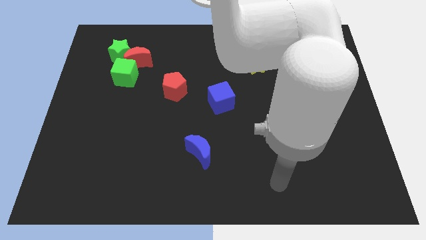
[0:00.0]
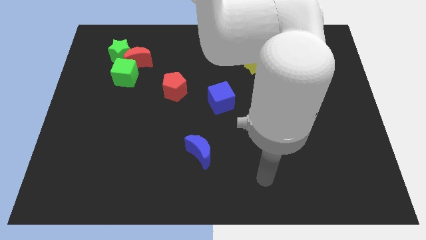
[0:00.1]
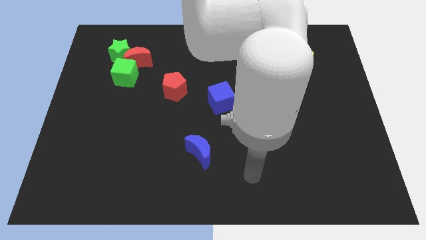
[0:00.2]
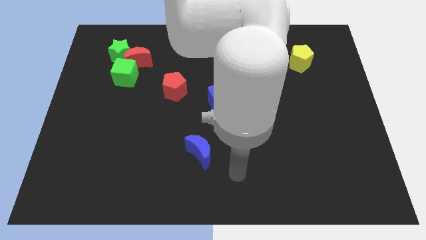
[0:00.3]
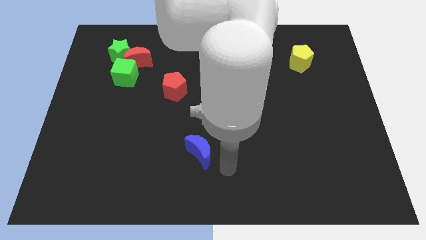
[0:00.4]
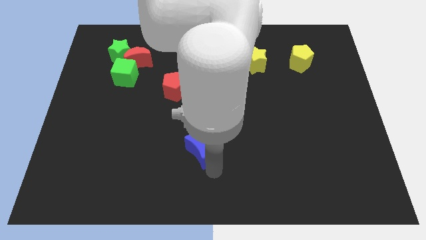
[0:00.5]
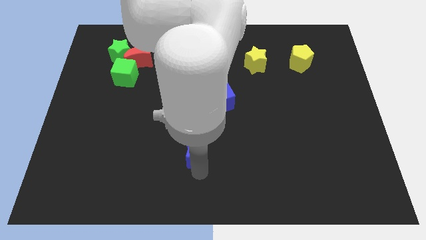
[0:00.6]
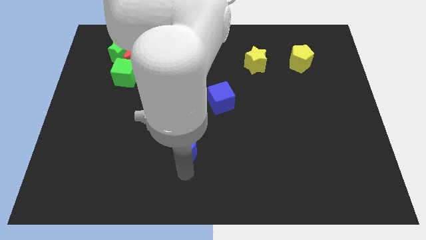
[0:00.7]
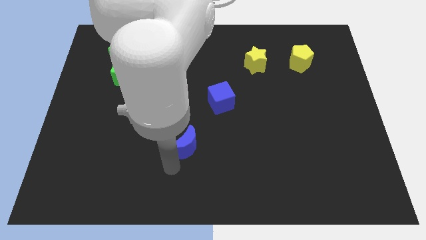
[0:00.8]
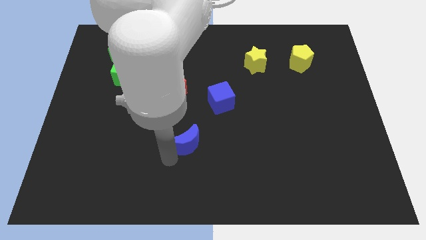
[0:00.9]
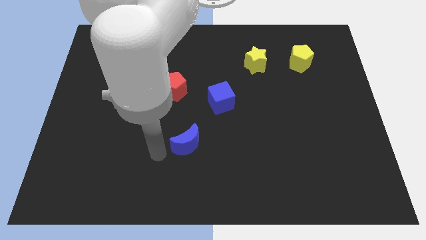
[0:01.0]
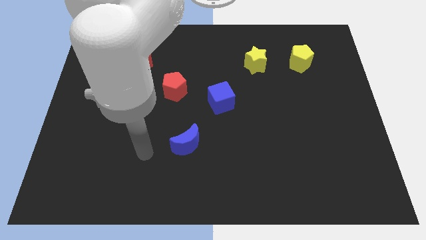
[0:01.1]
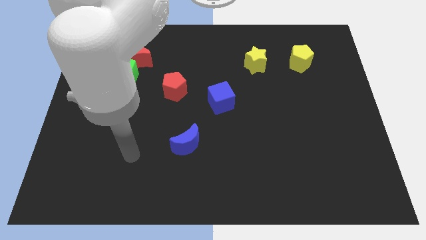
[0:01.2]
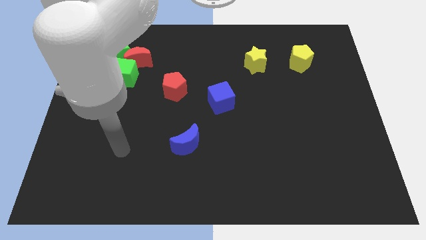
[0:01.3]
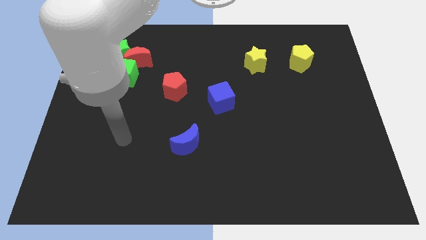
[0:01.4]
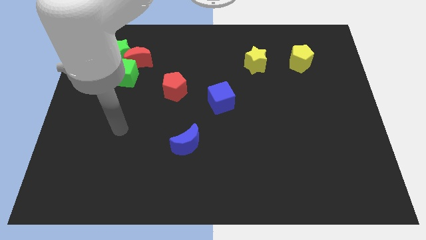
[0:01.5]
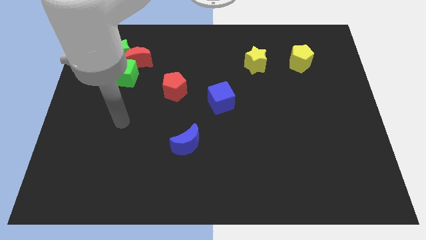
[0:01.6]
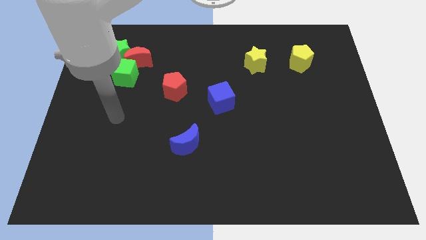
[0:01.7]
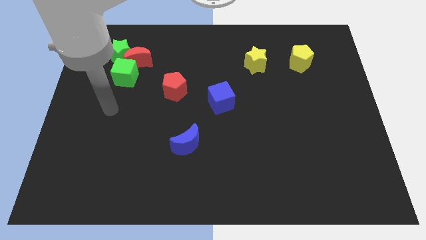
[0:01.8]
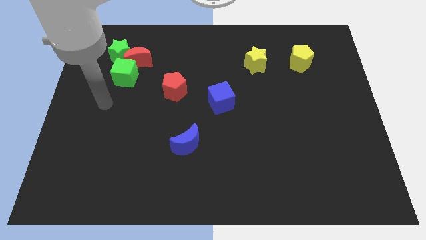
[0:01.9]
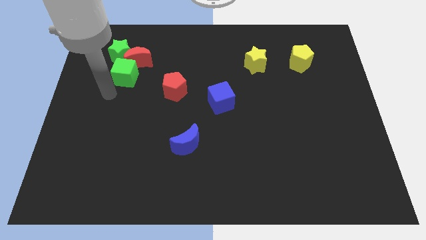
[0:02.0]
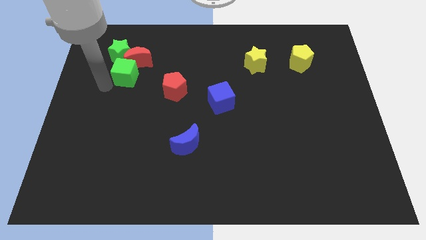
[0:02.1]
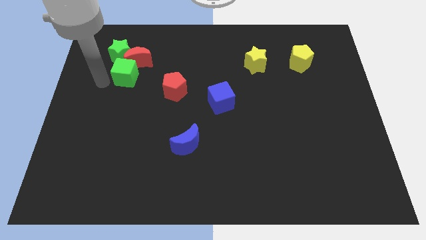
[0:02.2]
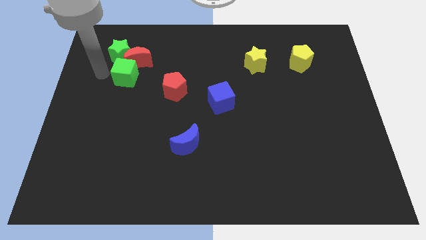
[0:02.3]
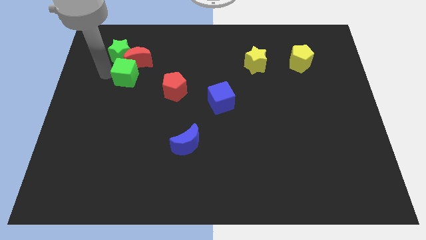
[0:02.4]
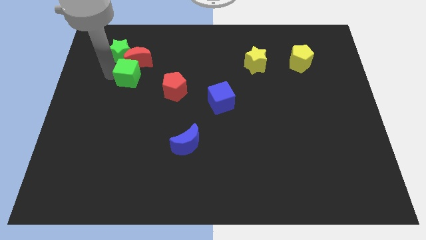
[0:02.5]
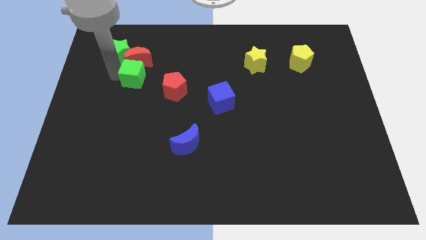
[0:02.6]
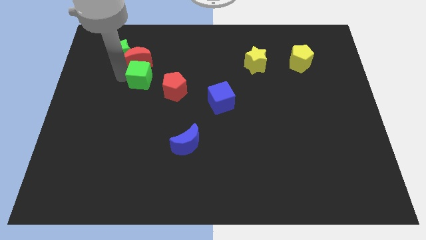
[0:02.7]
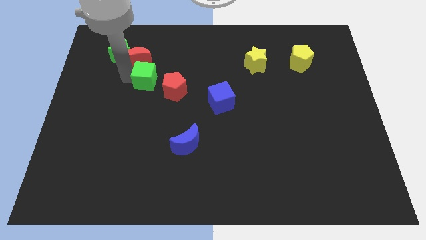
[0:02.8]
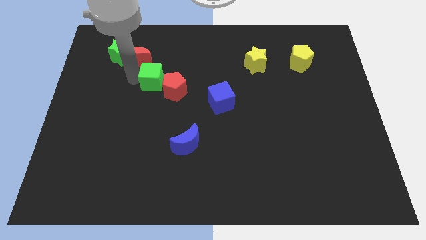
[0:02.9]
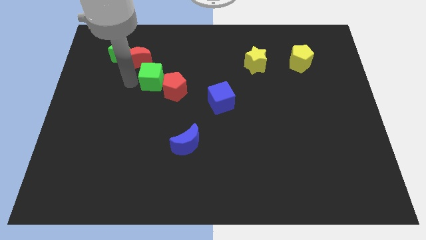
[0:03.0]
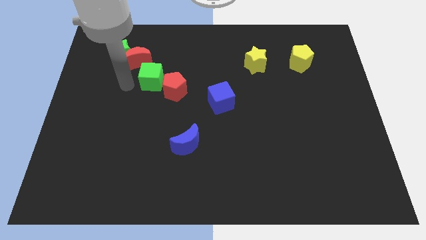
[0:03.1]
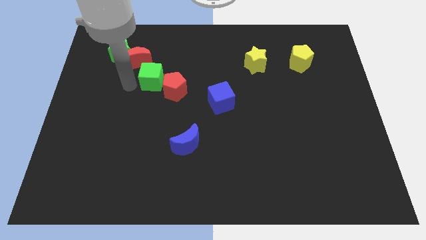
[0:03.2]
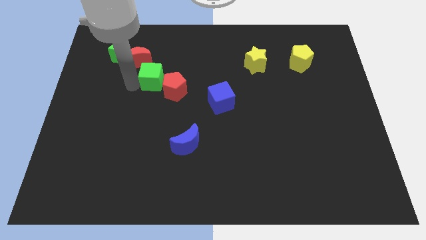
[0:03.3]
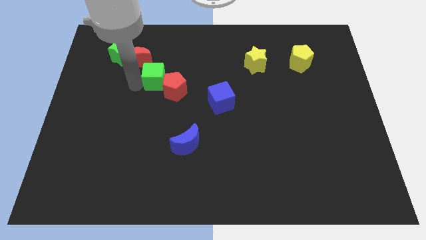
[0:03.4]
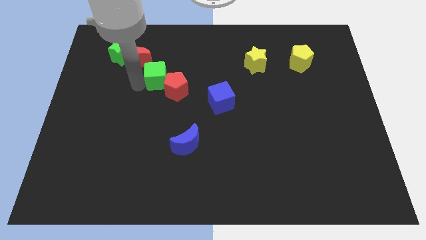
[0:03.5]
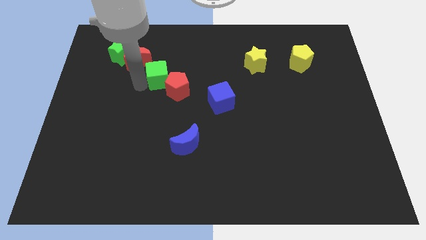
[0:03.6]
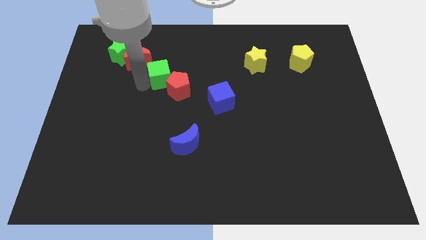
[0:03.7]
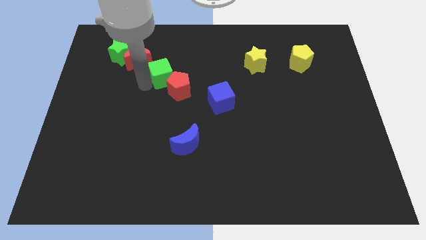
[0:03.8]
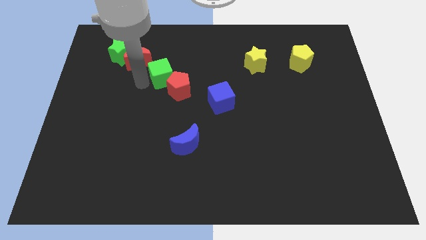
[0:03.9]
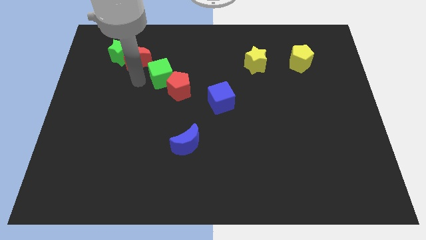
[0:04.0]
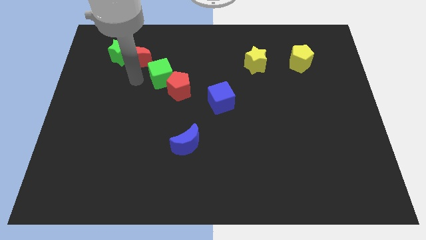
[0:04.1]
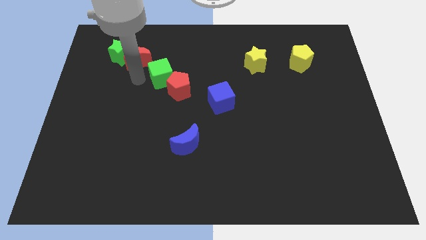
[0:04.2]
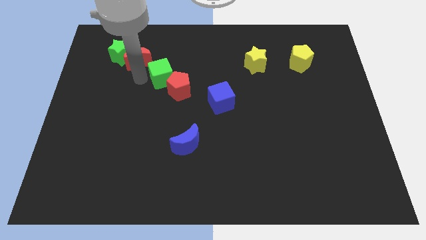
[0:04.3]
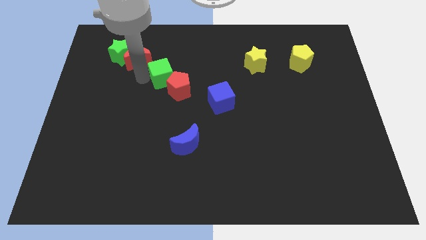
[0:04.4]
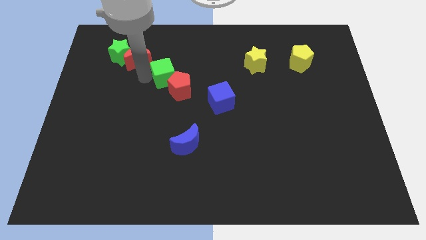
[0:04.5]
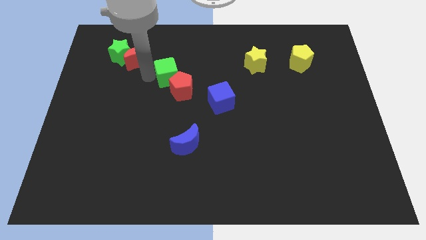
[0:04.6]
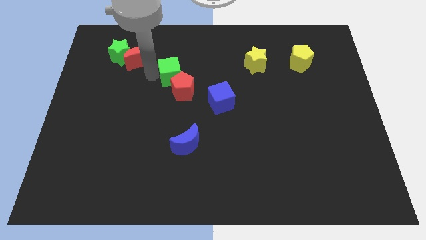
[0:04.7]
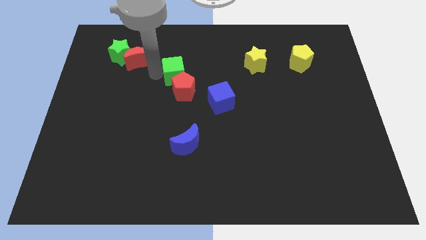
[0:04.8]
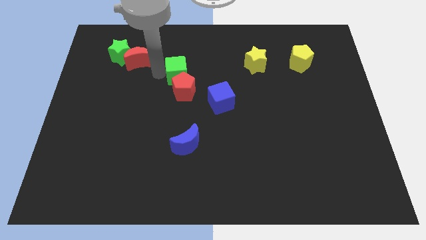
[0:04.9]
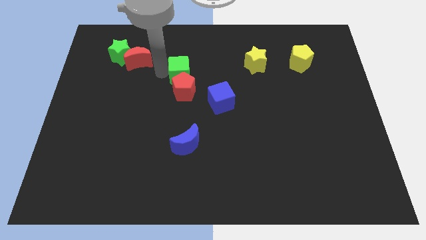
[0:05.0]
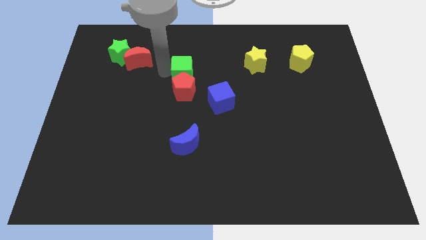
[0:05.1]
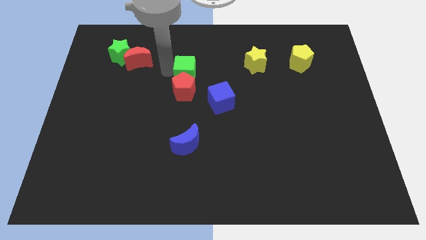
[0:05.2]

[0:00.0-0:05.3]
slide the green cube to the top left side of the blue cube

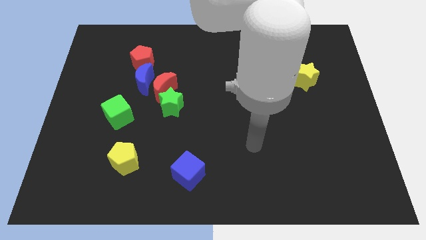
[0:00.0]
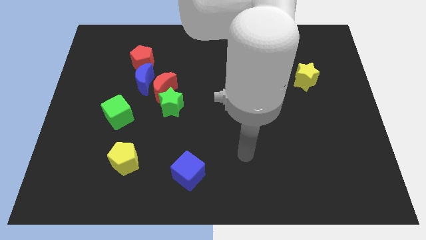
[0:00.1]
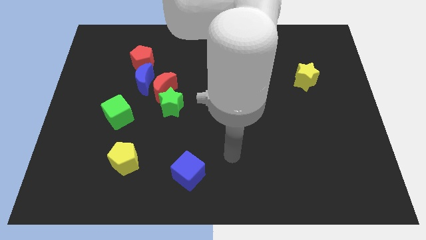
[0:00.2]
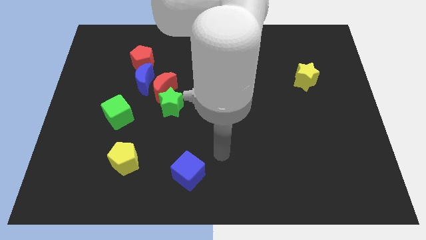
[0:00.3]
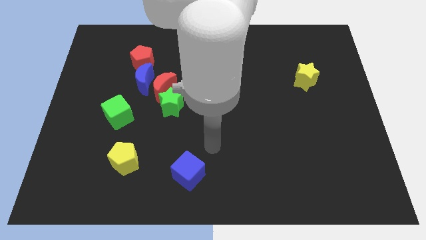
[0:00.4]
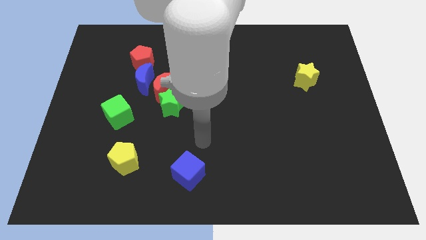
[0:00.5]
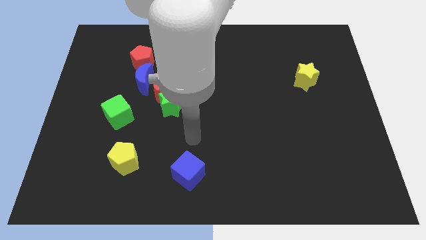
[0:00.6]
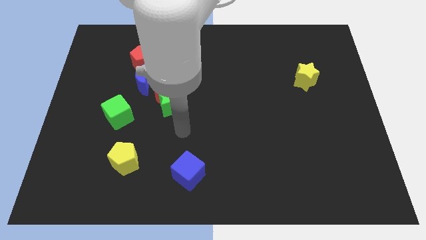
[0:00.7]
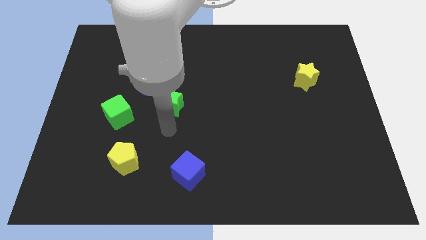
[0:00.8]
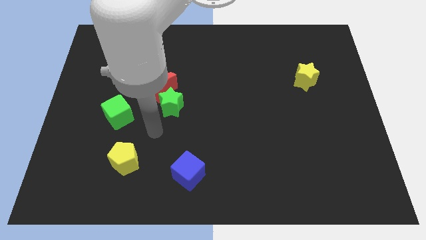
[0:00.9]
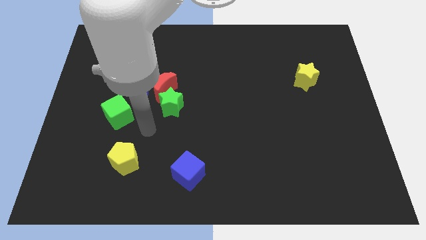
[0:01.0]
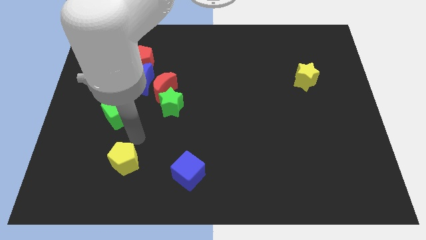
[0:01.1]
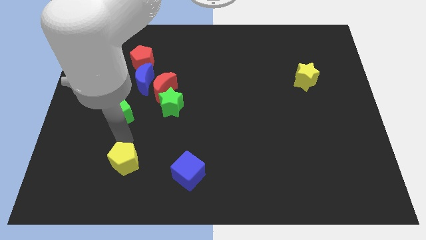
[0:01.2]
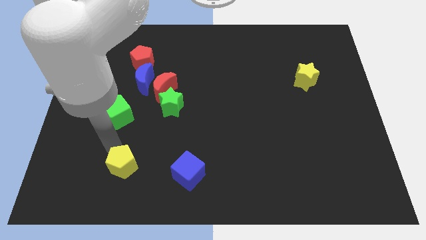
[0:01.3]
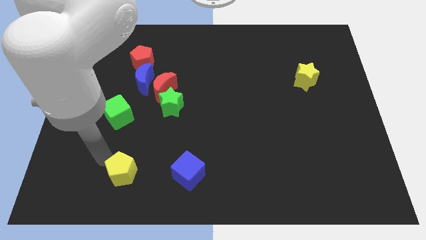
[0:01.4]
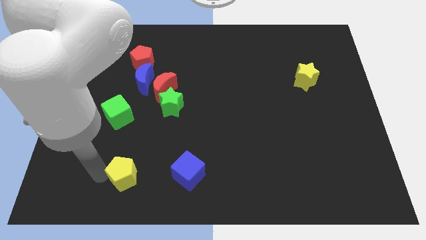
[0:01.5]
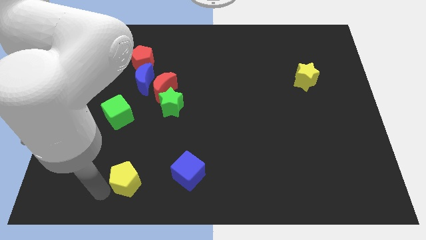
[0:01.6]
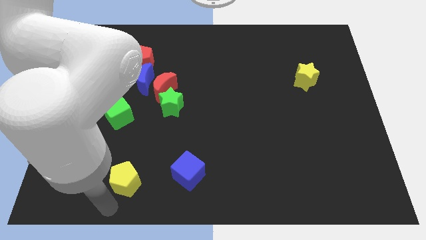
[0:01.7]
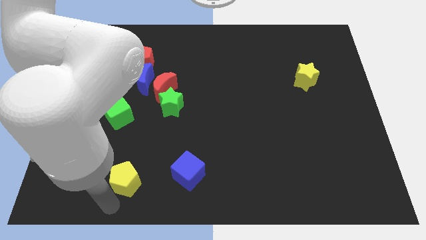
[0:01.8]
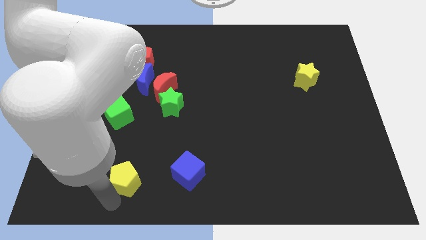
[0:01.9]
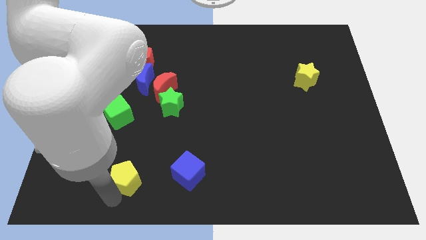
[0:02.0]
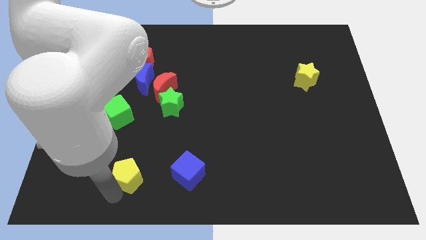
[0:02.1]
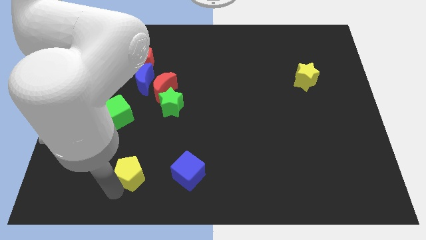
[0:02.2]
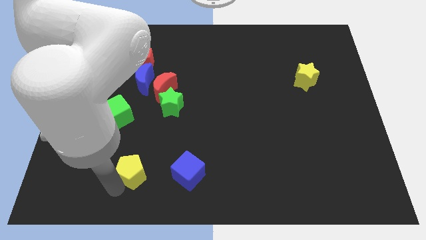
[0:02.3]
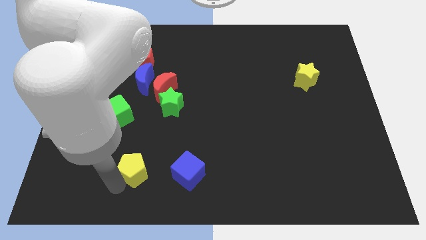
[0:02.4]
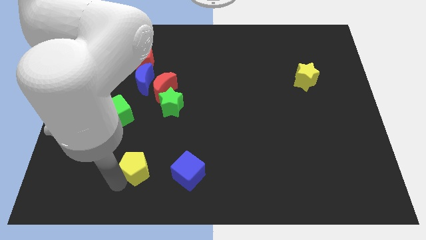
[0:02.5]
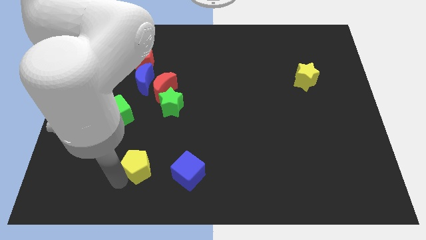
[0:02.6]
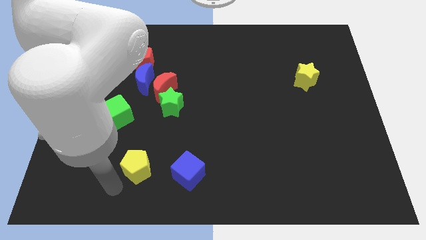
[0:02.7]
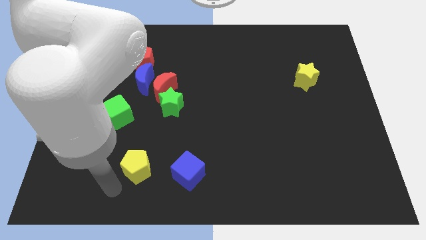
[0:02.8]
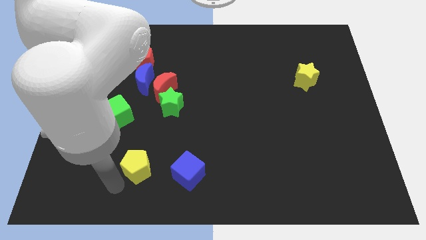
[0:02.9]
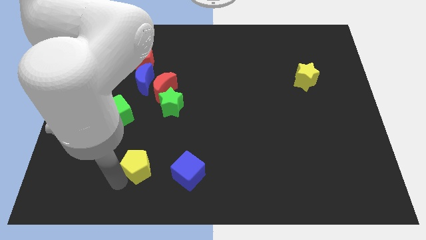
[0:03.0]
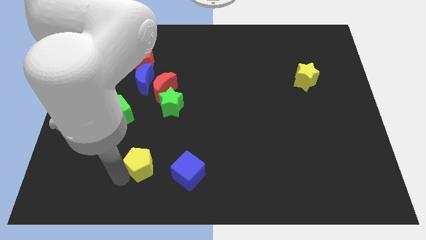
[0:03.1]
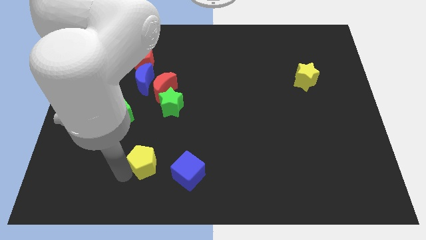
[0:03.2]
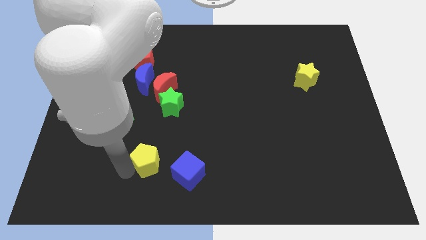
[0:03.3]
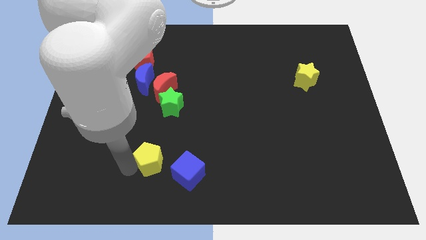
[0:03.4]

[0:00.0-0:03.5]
move the yellow pentagon to the bottom side of the green star
